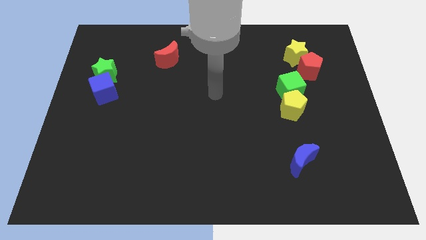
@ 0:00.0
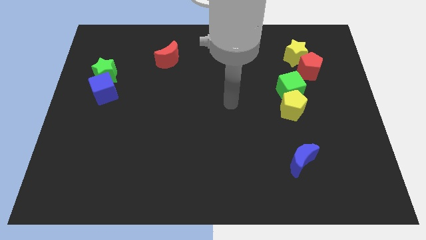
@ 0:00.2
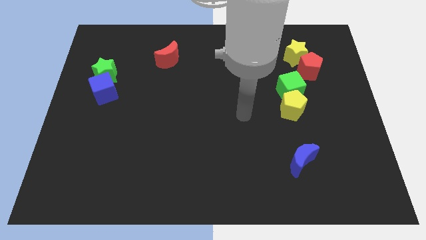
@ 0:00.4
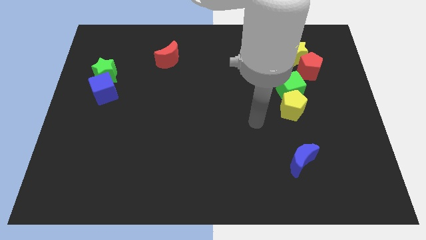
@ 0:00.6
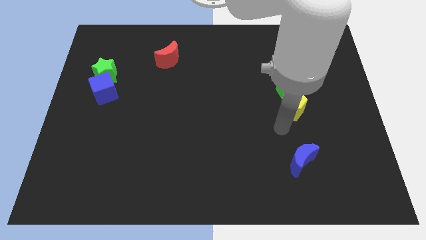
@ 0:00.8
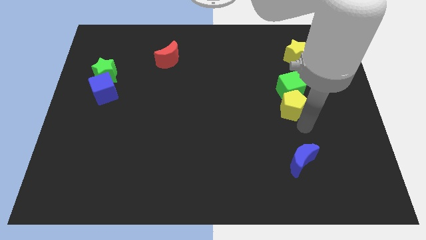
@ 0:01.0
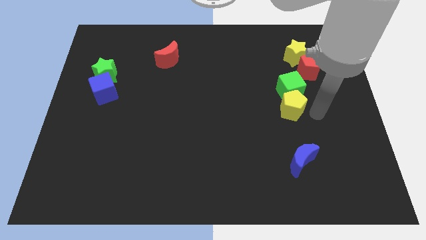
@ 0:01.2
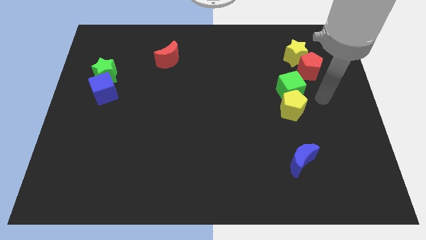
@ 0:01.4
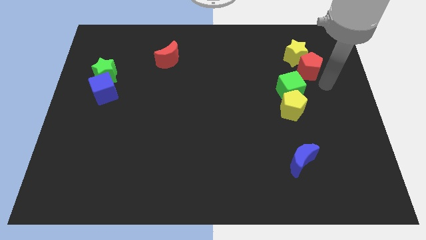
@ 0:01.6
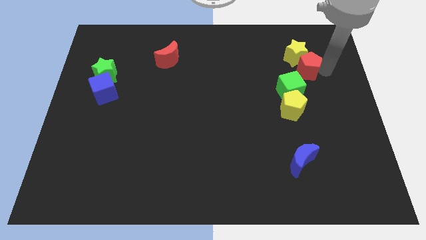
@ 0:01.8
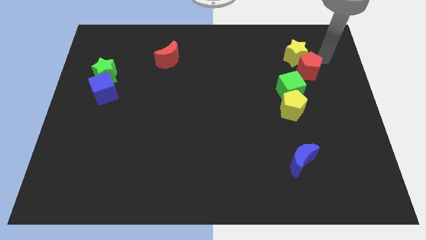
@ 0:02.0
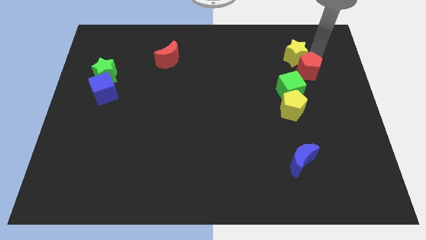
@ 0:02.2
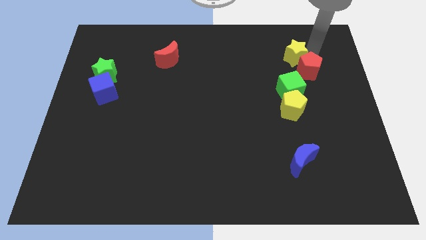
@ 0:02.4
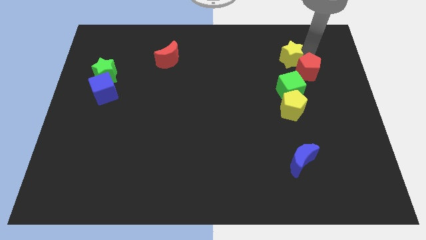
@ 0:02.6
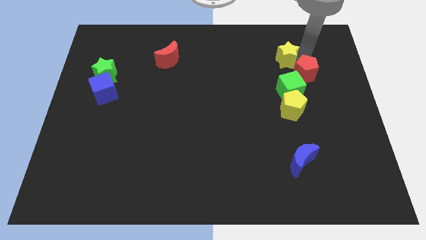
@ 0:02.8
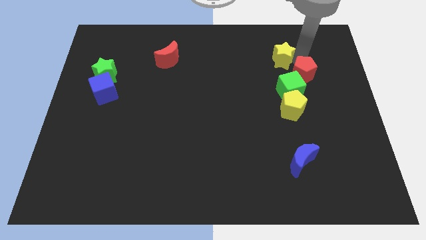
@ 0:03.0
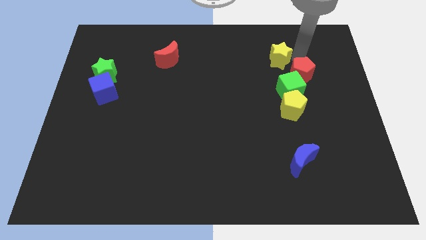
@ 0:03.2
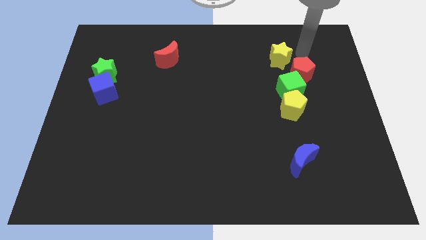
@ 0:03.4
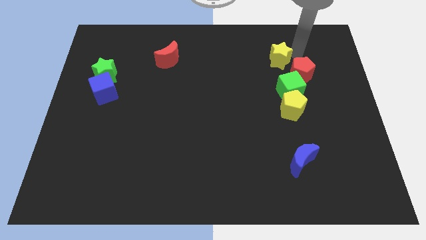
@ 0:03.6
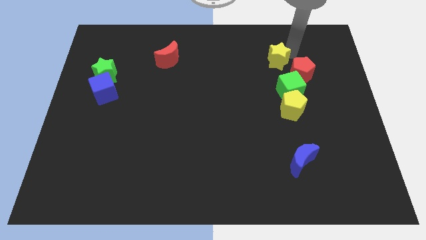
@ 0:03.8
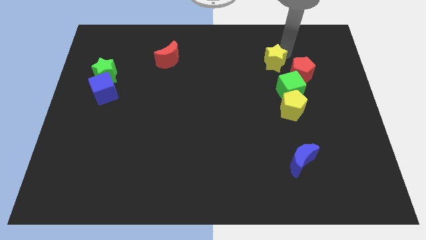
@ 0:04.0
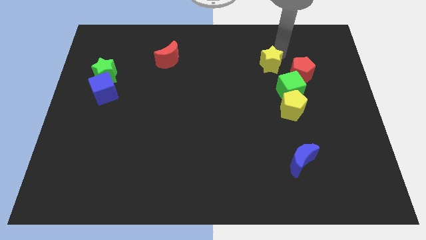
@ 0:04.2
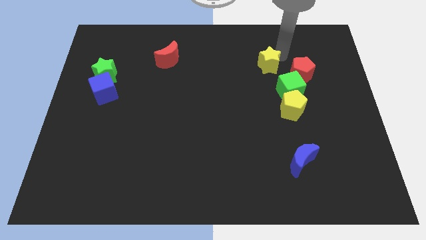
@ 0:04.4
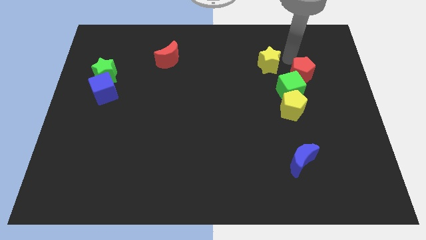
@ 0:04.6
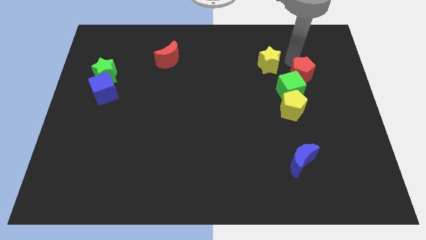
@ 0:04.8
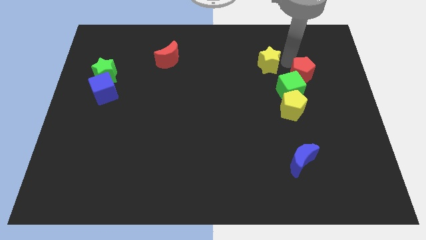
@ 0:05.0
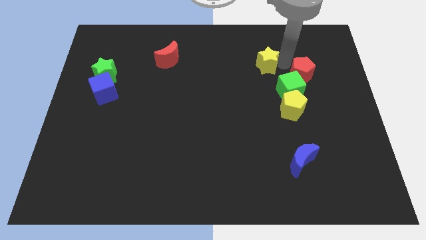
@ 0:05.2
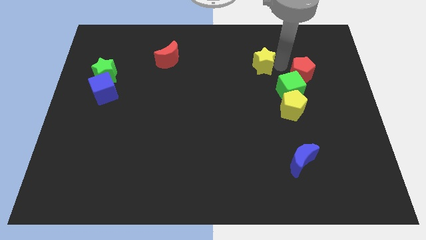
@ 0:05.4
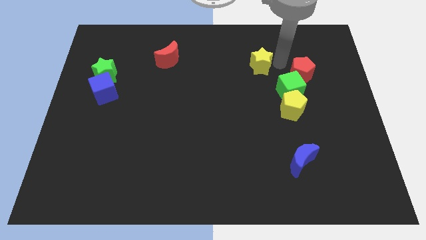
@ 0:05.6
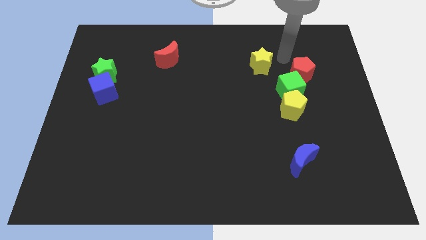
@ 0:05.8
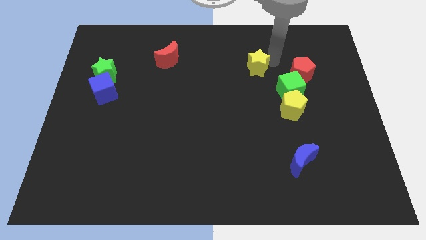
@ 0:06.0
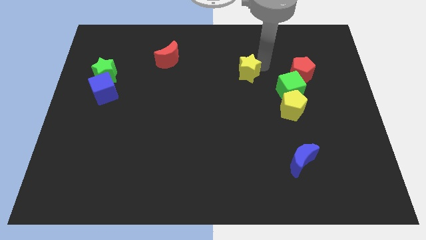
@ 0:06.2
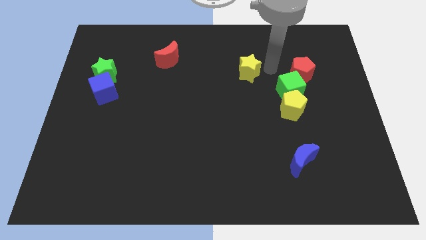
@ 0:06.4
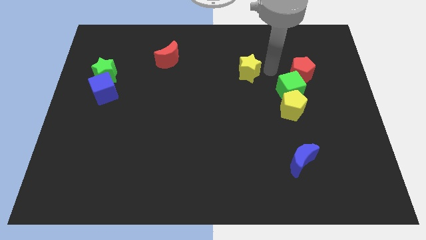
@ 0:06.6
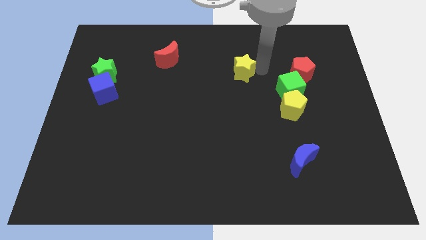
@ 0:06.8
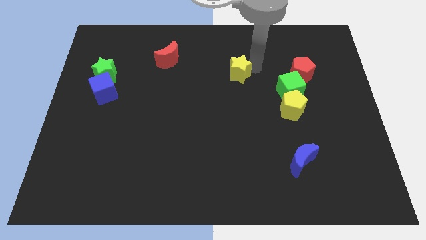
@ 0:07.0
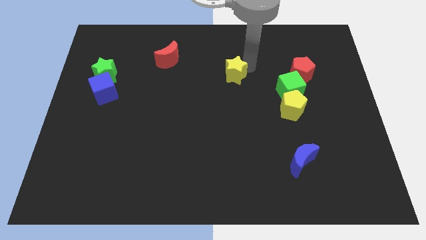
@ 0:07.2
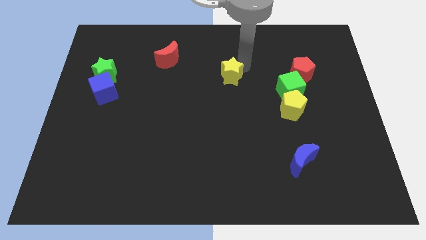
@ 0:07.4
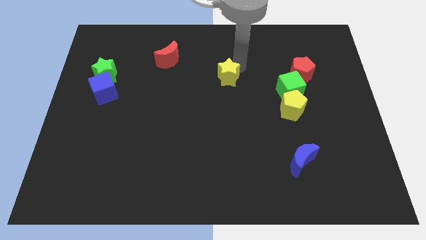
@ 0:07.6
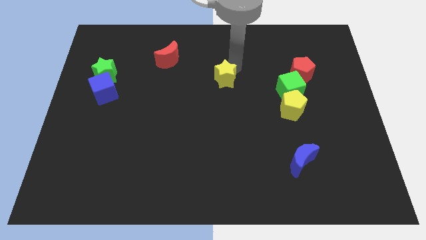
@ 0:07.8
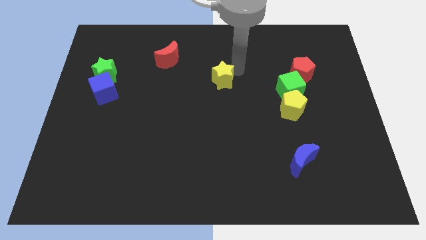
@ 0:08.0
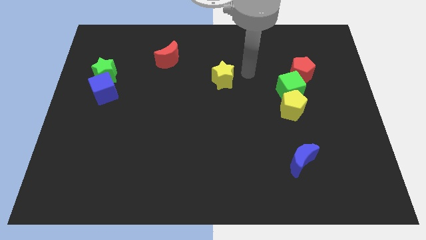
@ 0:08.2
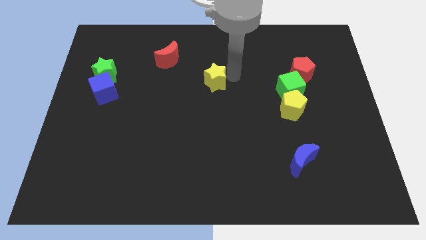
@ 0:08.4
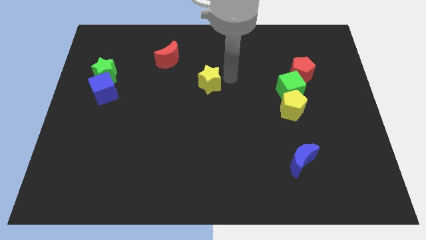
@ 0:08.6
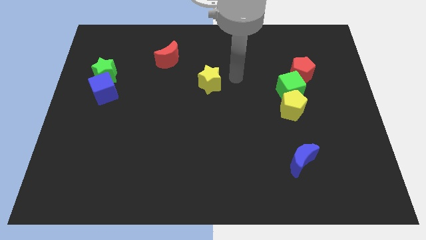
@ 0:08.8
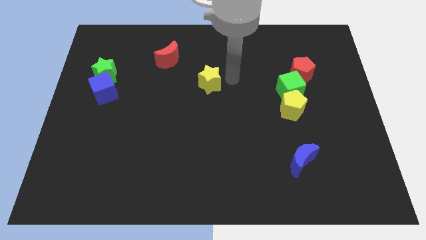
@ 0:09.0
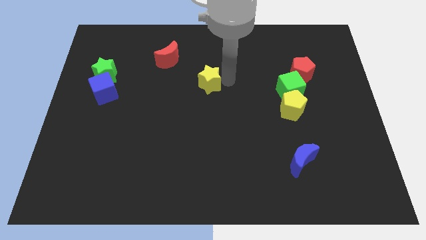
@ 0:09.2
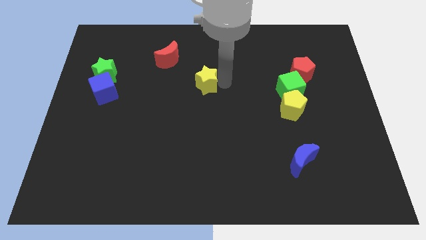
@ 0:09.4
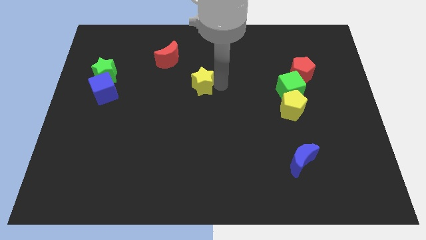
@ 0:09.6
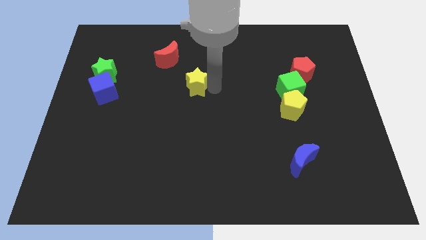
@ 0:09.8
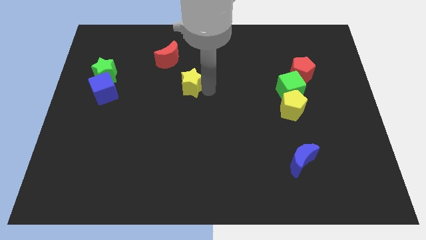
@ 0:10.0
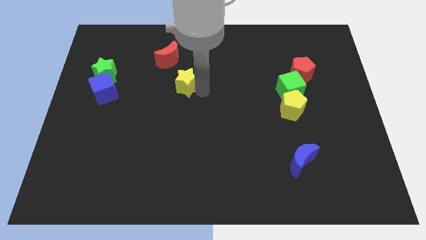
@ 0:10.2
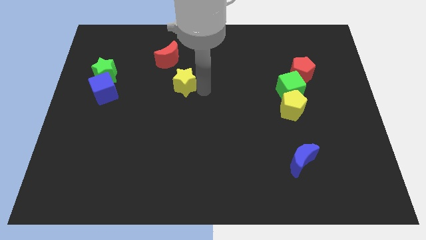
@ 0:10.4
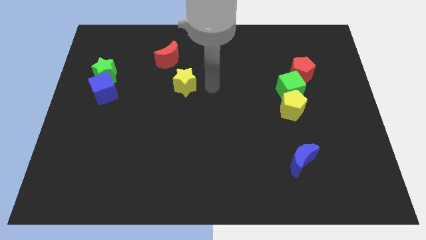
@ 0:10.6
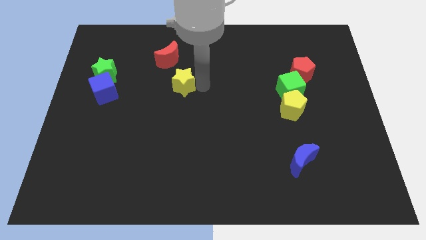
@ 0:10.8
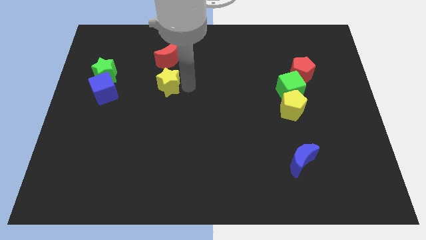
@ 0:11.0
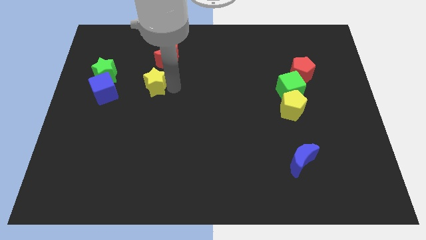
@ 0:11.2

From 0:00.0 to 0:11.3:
put the yellow star just right of the green star

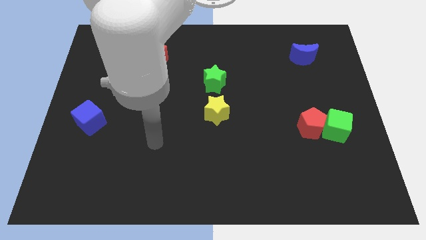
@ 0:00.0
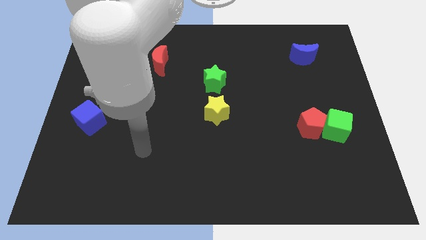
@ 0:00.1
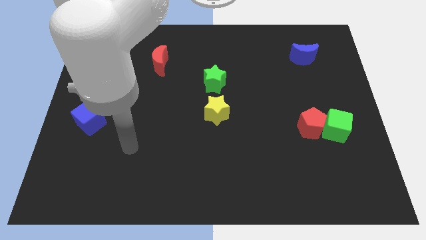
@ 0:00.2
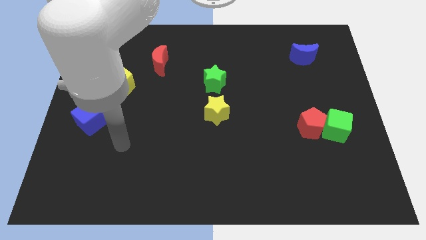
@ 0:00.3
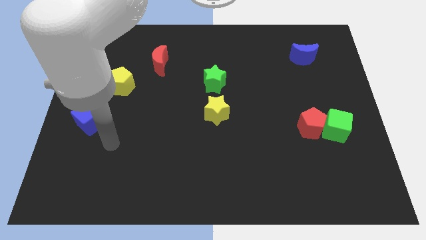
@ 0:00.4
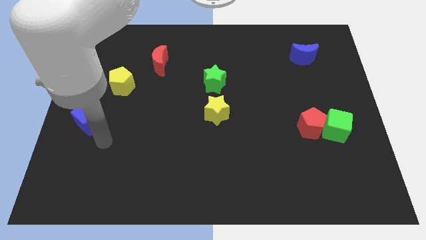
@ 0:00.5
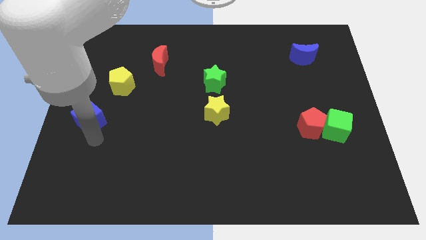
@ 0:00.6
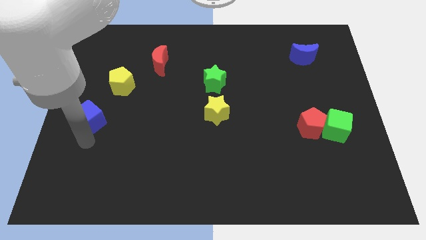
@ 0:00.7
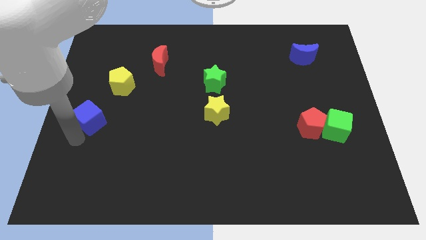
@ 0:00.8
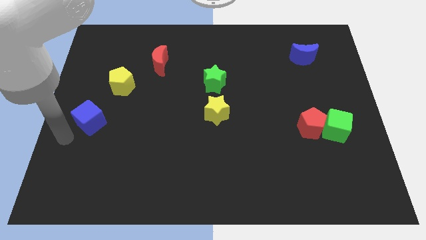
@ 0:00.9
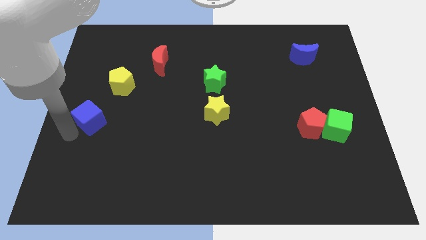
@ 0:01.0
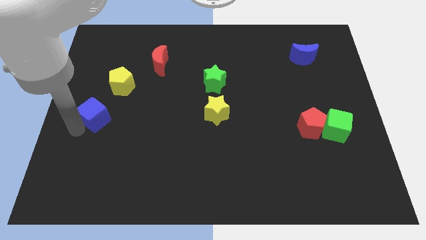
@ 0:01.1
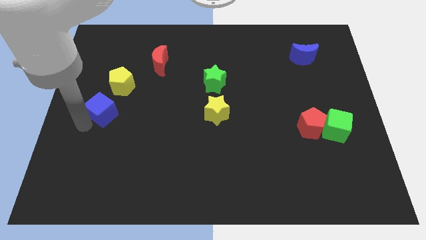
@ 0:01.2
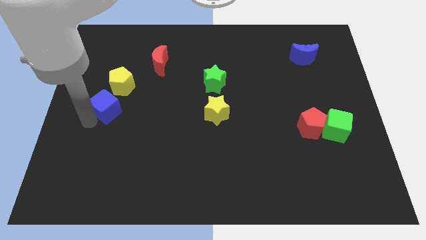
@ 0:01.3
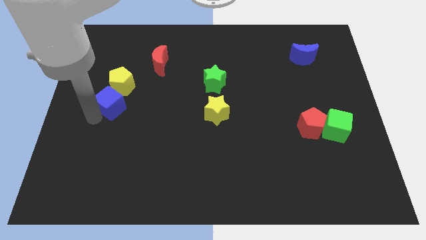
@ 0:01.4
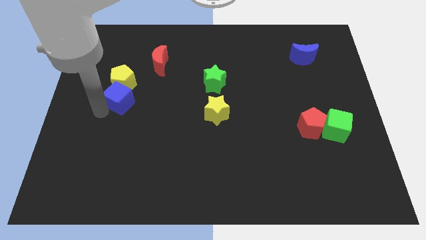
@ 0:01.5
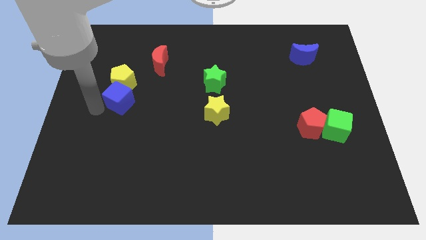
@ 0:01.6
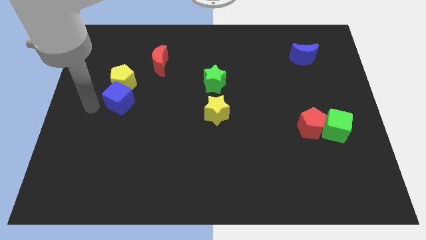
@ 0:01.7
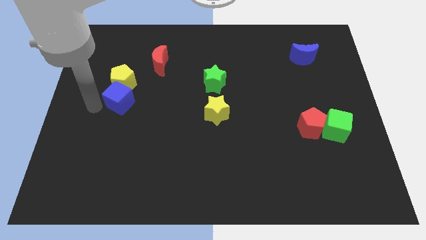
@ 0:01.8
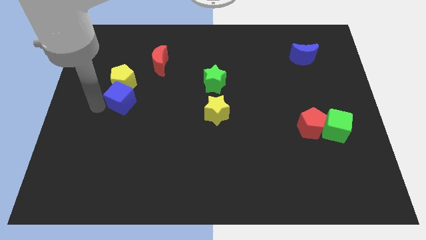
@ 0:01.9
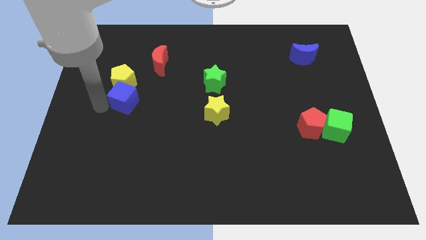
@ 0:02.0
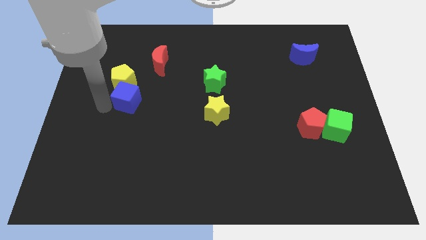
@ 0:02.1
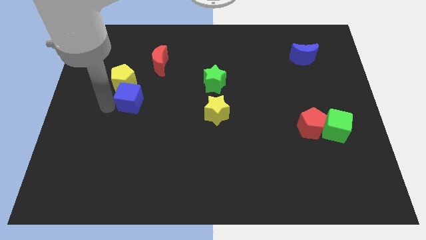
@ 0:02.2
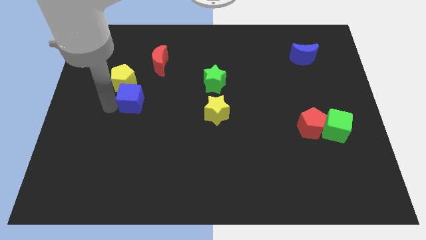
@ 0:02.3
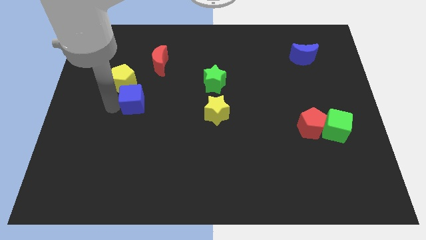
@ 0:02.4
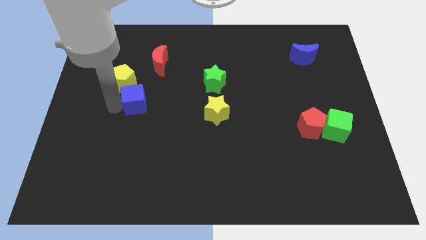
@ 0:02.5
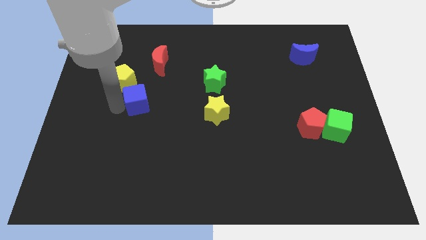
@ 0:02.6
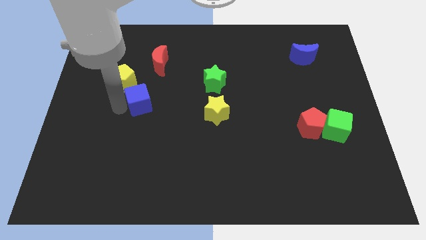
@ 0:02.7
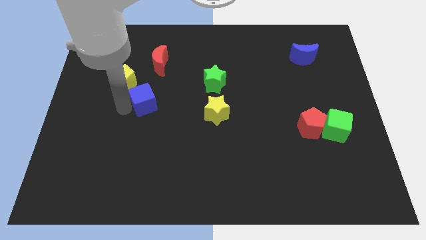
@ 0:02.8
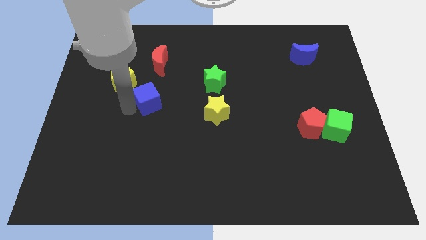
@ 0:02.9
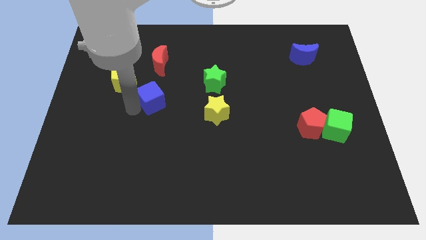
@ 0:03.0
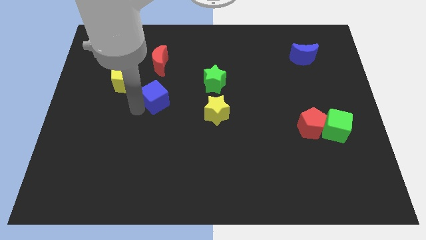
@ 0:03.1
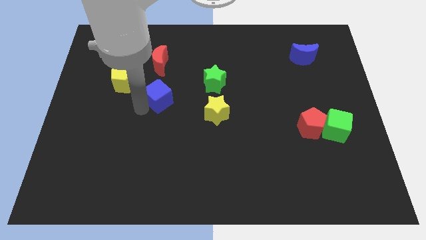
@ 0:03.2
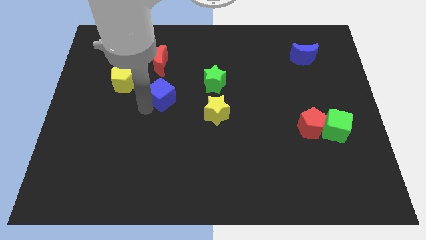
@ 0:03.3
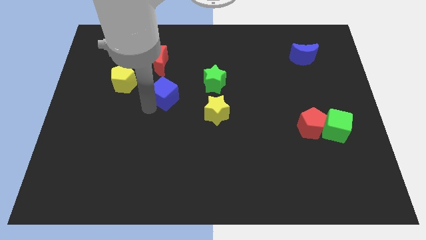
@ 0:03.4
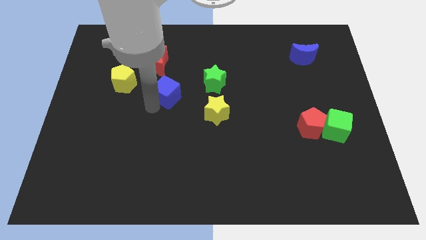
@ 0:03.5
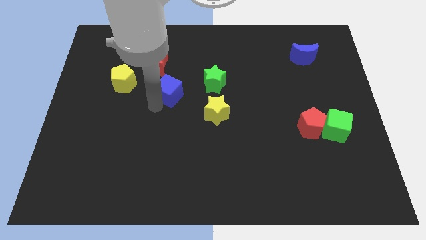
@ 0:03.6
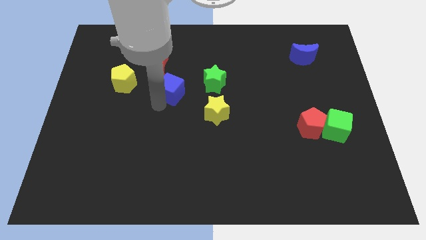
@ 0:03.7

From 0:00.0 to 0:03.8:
push the blue cube diagonally down and to the right of the red moon
